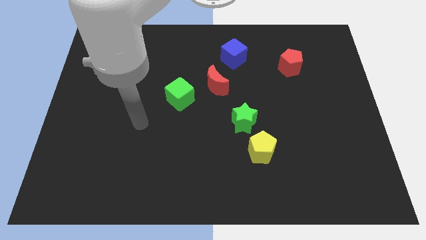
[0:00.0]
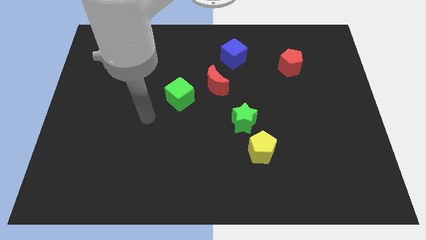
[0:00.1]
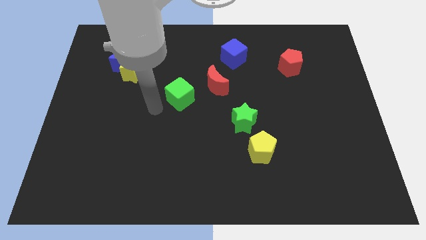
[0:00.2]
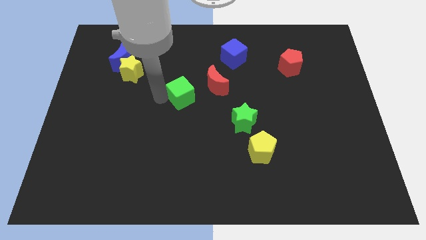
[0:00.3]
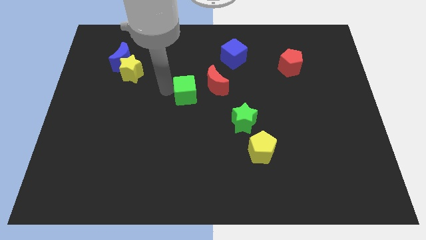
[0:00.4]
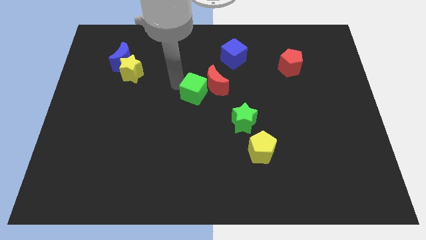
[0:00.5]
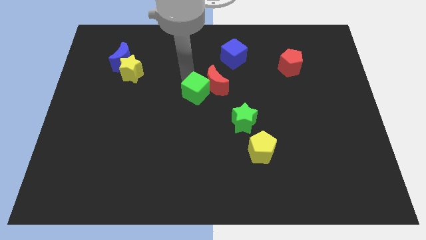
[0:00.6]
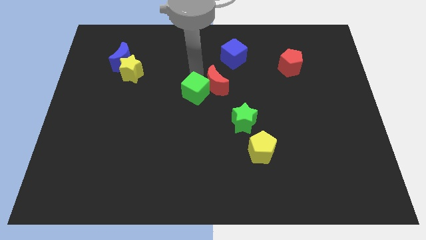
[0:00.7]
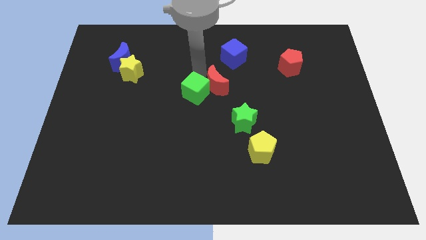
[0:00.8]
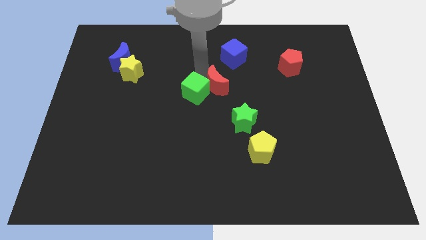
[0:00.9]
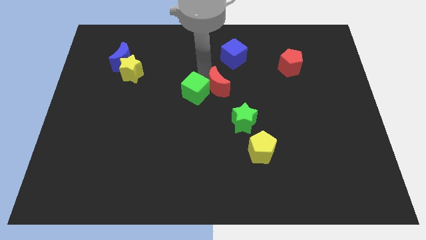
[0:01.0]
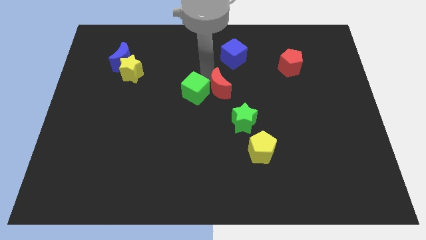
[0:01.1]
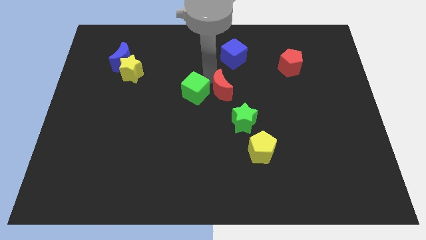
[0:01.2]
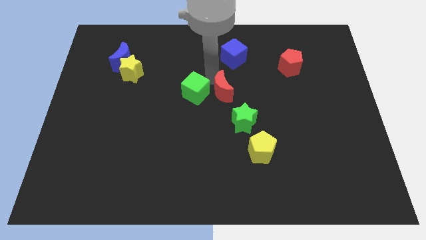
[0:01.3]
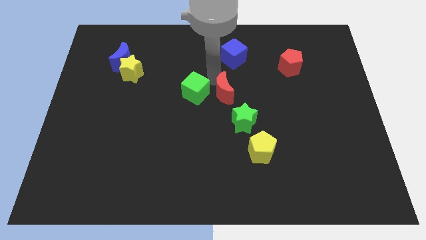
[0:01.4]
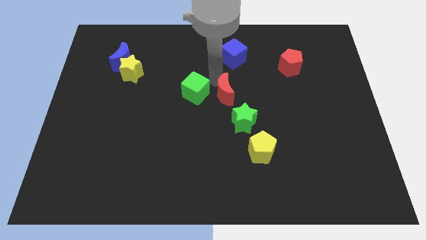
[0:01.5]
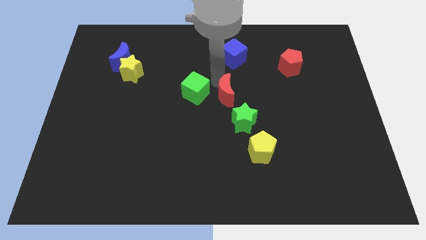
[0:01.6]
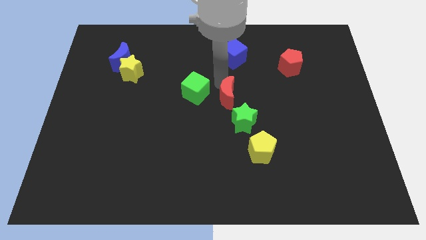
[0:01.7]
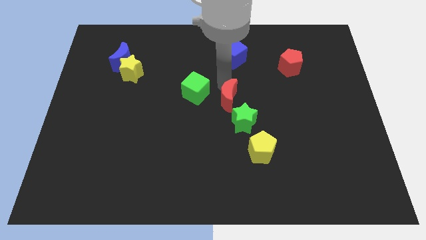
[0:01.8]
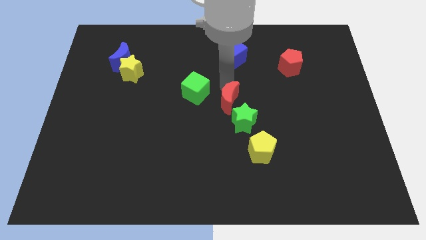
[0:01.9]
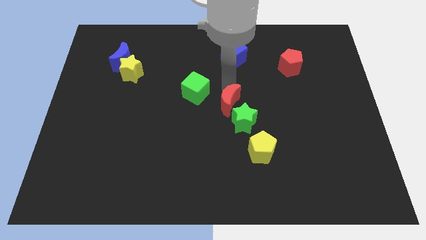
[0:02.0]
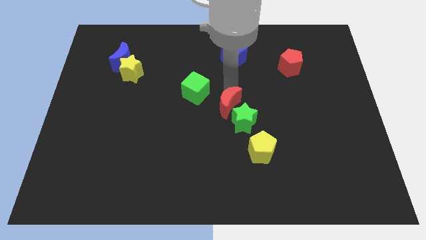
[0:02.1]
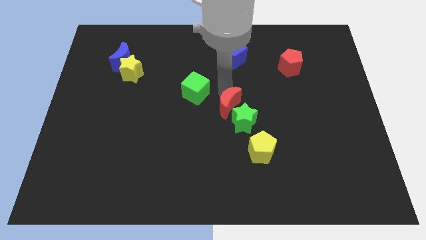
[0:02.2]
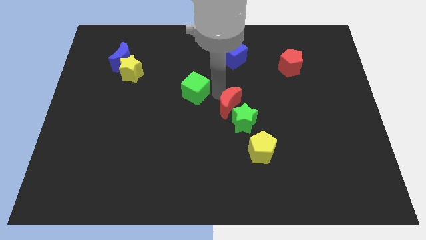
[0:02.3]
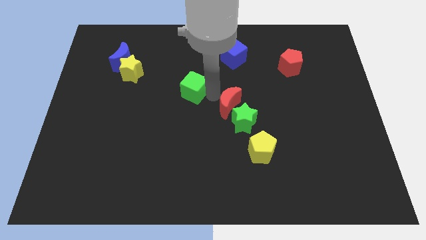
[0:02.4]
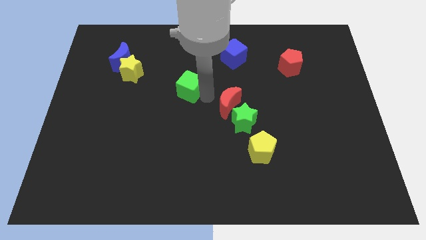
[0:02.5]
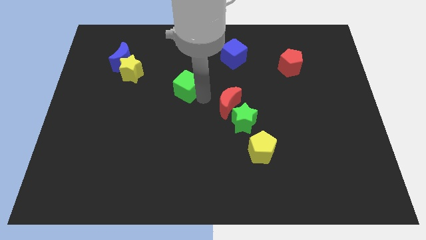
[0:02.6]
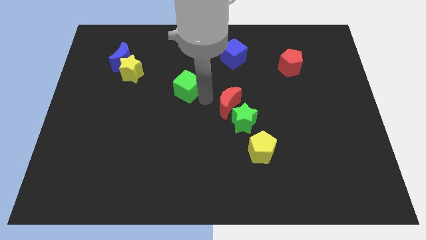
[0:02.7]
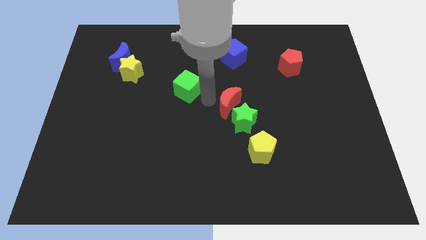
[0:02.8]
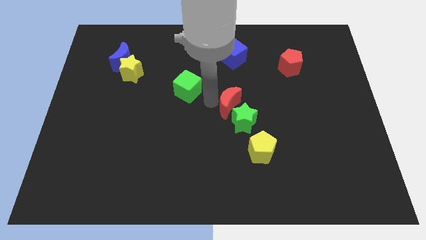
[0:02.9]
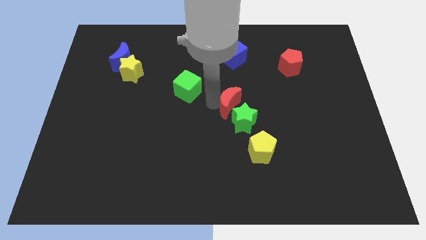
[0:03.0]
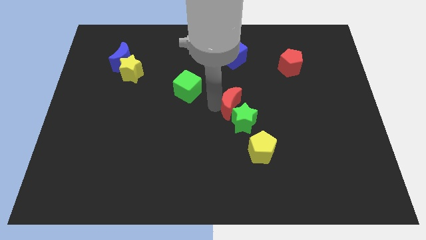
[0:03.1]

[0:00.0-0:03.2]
slightly move the red moon down and then to the right

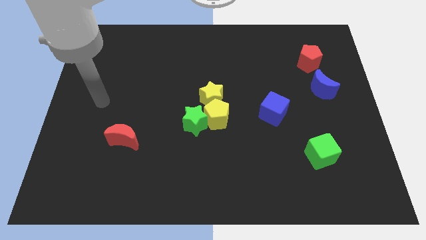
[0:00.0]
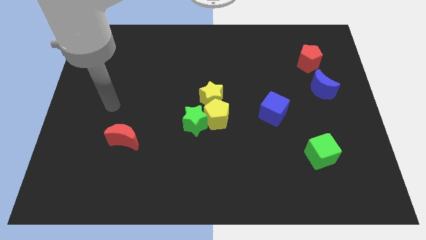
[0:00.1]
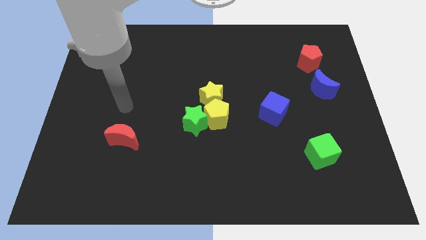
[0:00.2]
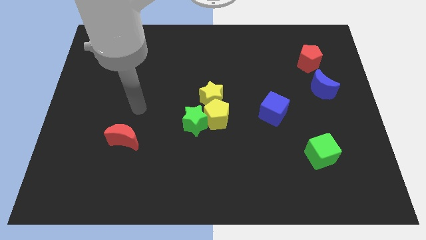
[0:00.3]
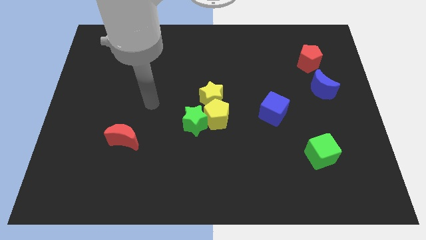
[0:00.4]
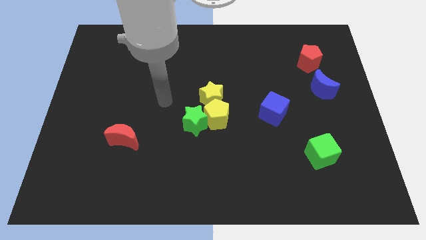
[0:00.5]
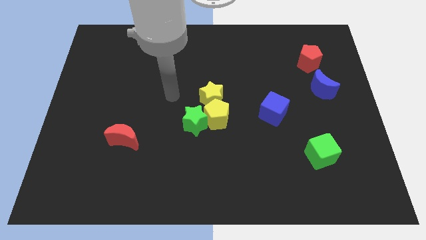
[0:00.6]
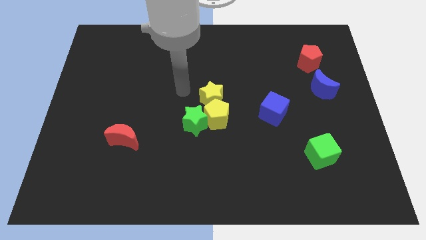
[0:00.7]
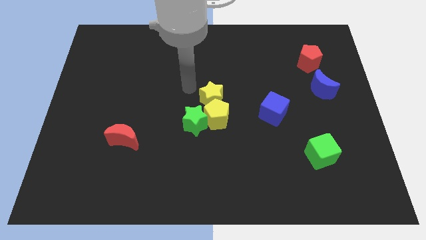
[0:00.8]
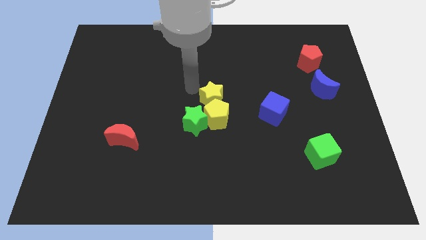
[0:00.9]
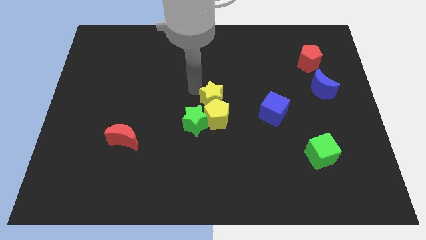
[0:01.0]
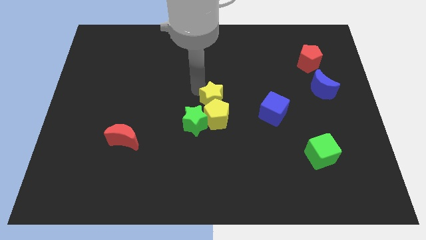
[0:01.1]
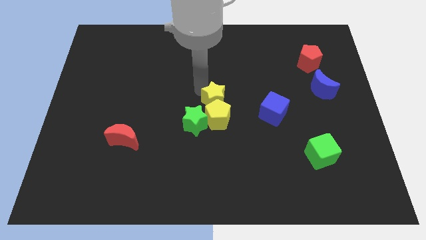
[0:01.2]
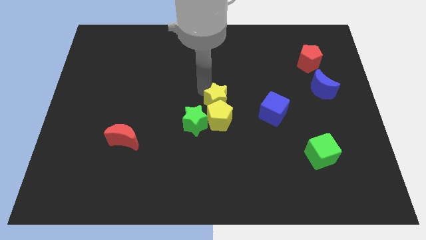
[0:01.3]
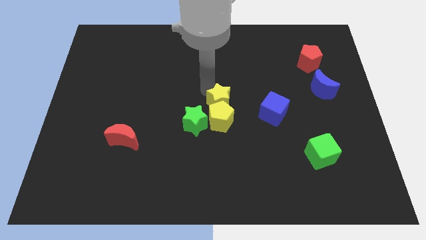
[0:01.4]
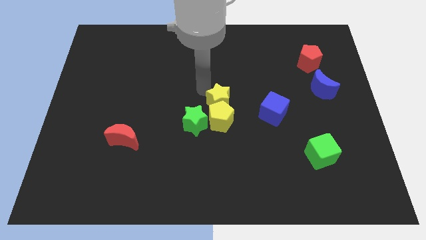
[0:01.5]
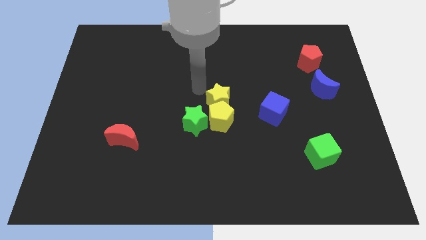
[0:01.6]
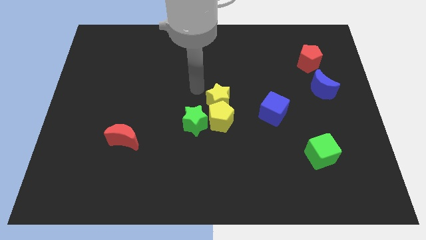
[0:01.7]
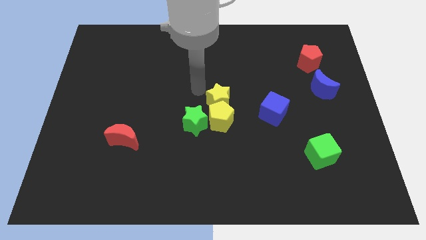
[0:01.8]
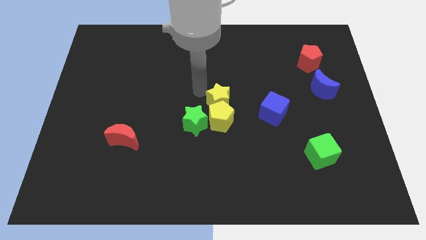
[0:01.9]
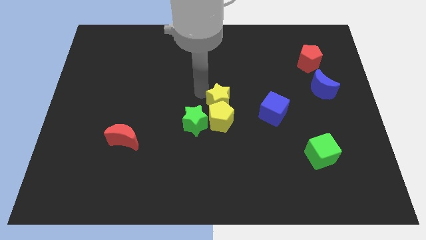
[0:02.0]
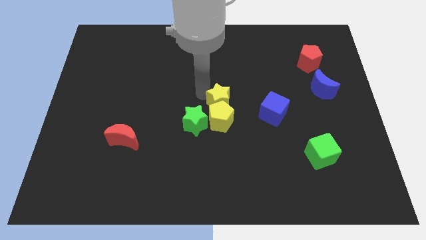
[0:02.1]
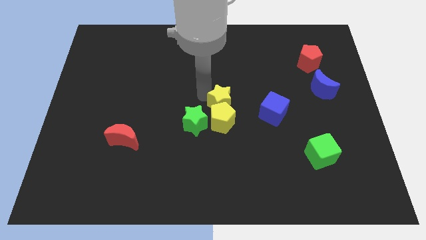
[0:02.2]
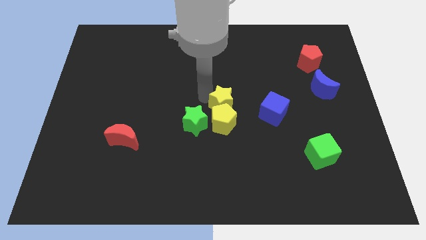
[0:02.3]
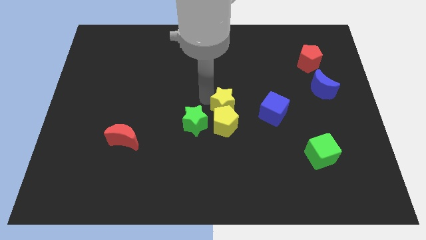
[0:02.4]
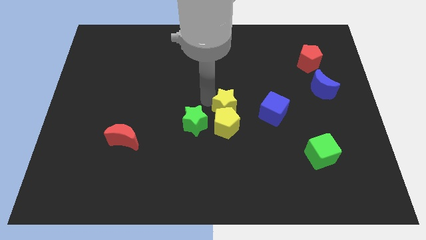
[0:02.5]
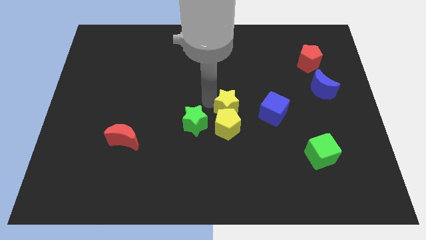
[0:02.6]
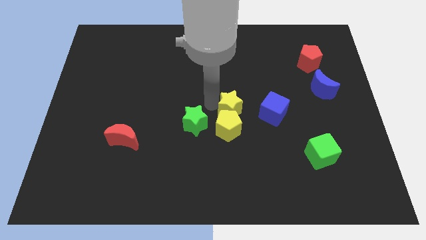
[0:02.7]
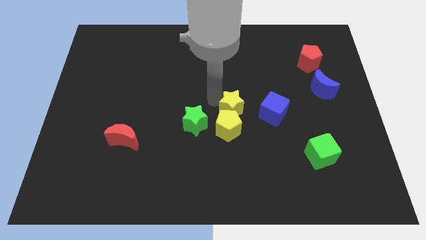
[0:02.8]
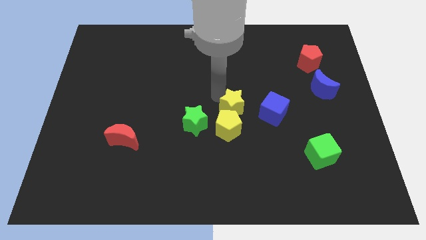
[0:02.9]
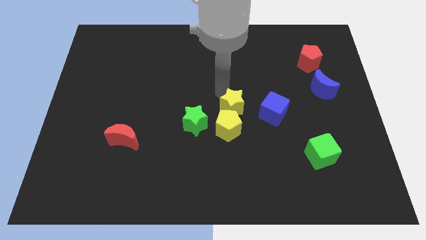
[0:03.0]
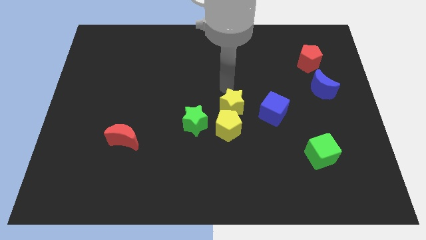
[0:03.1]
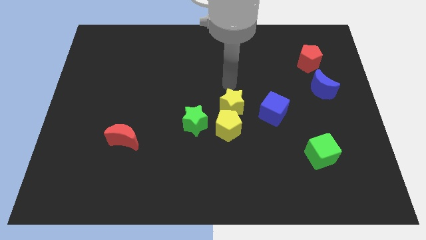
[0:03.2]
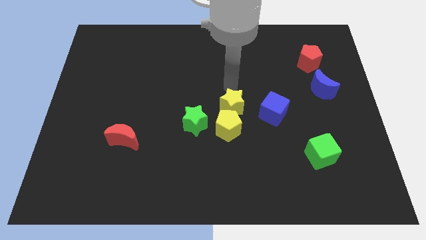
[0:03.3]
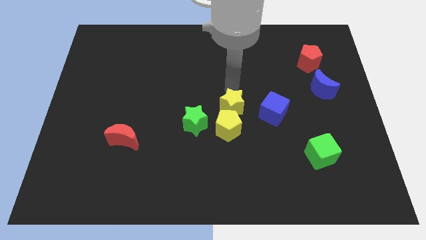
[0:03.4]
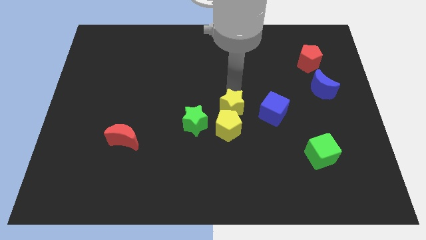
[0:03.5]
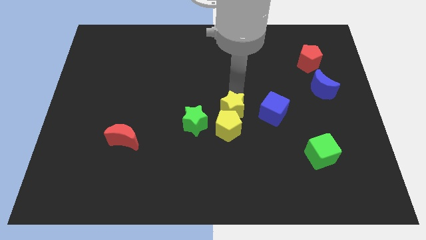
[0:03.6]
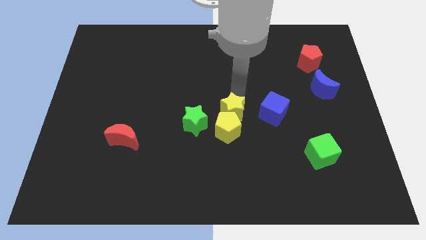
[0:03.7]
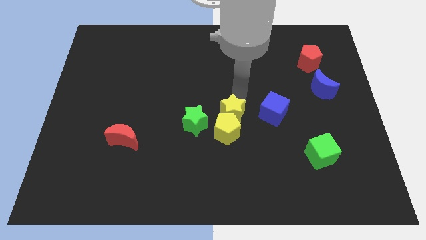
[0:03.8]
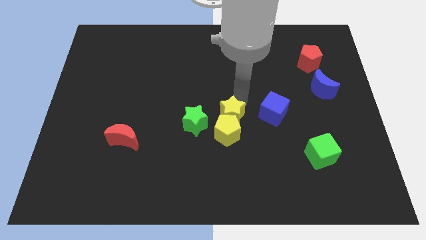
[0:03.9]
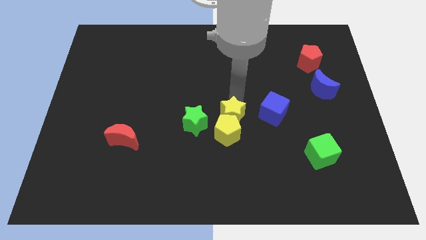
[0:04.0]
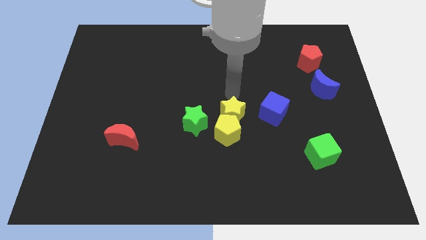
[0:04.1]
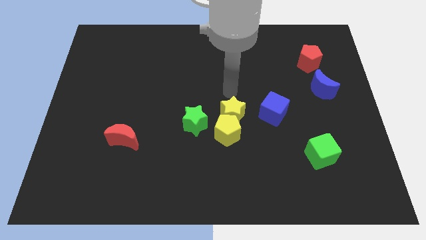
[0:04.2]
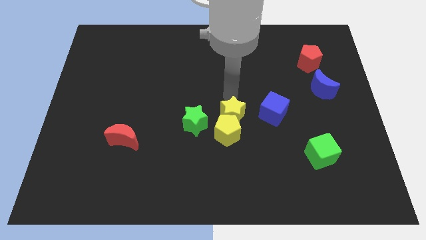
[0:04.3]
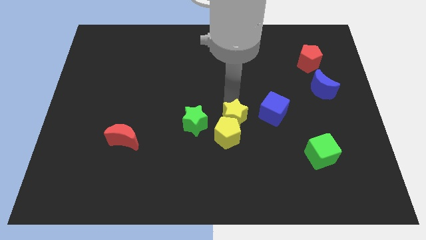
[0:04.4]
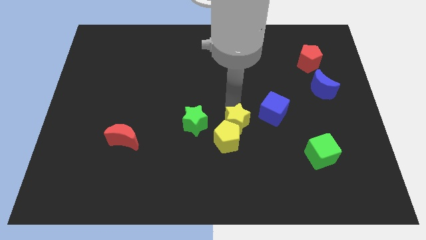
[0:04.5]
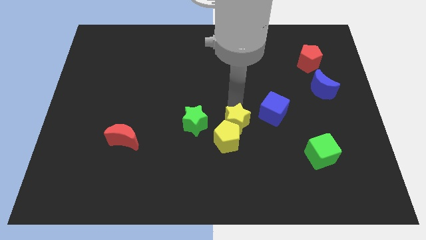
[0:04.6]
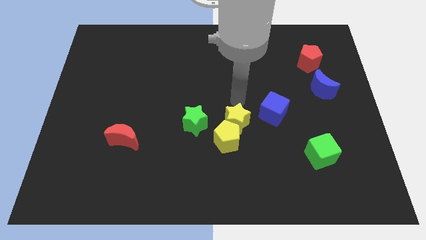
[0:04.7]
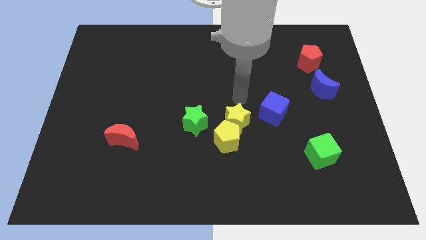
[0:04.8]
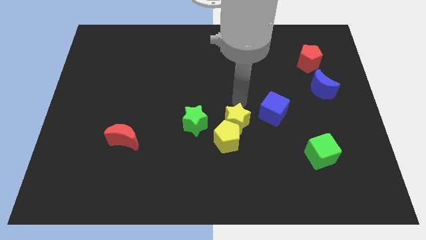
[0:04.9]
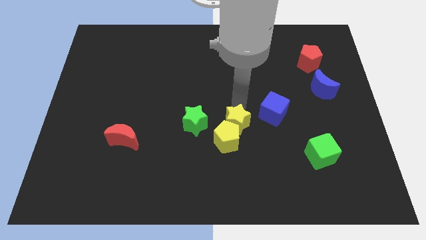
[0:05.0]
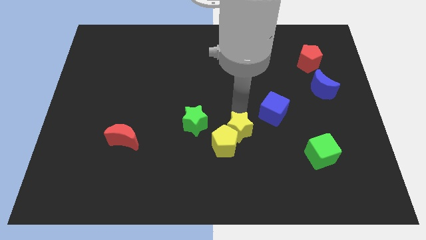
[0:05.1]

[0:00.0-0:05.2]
slide the yellow star a bit down
